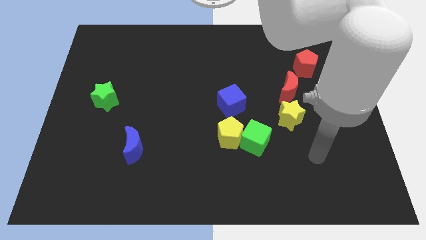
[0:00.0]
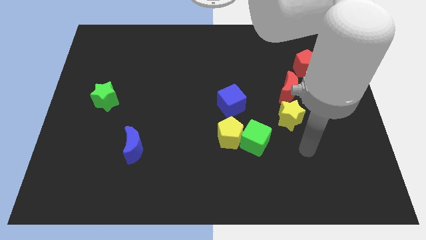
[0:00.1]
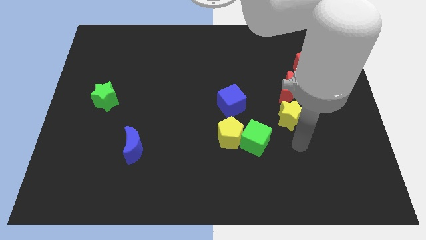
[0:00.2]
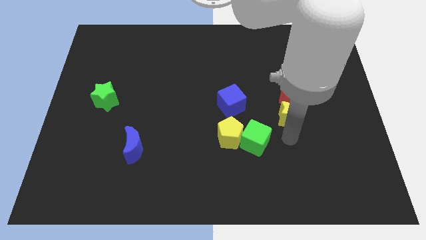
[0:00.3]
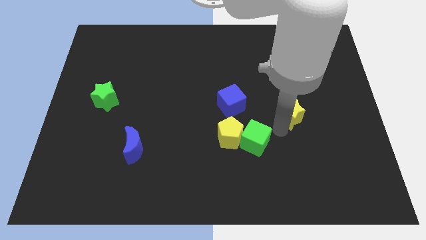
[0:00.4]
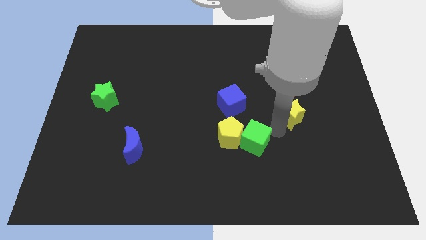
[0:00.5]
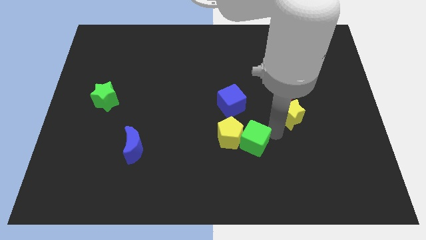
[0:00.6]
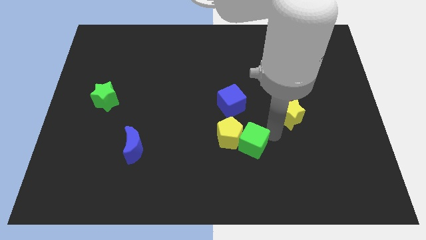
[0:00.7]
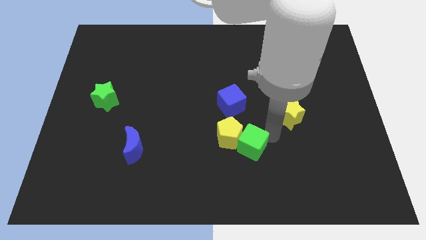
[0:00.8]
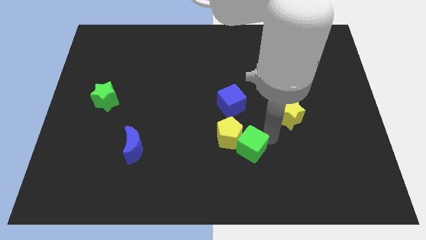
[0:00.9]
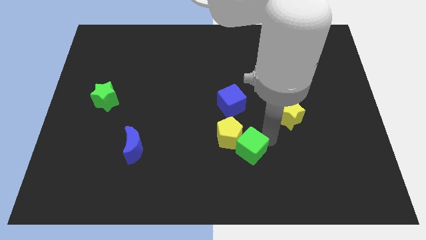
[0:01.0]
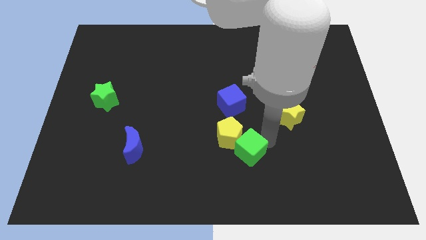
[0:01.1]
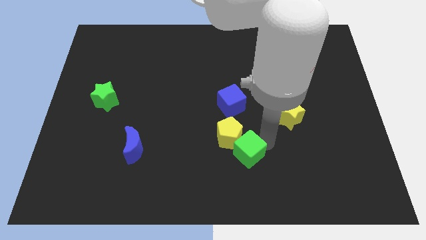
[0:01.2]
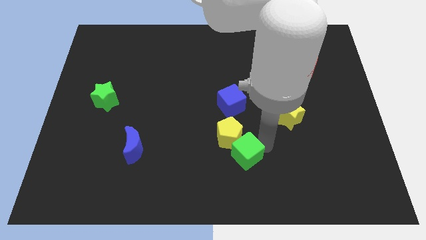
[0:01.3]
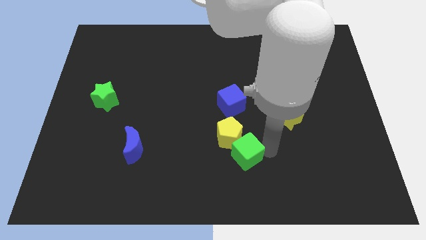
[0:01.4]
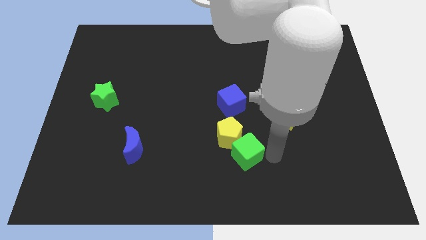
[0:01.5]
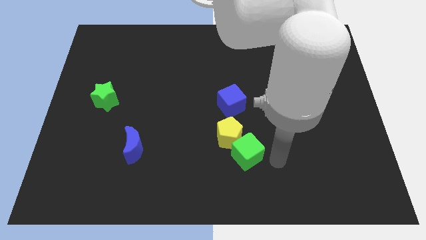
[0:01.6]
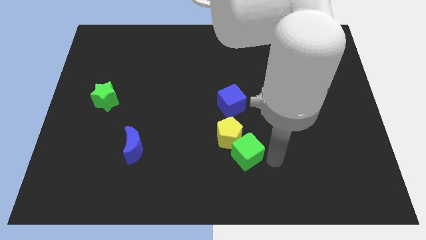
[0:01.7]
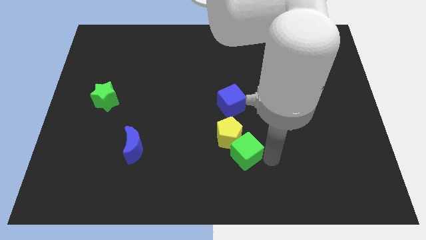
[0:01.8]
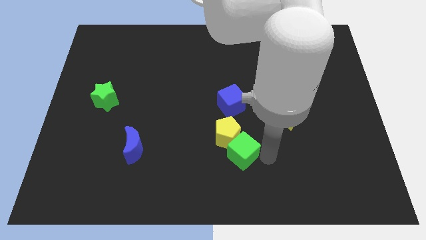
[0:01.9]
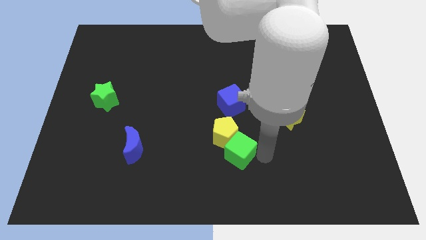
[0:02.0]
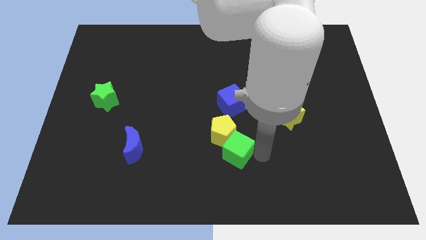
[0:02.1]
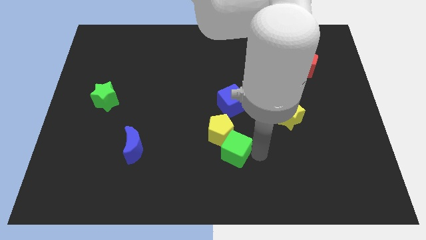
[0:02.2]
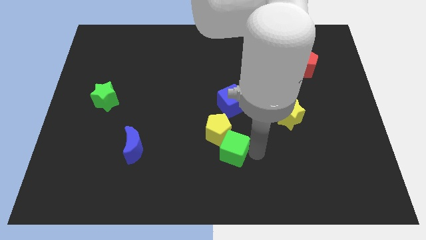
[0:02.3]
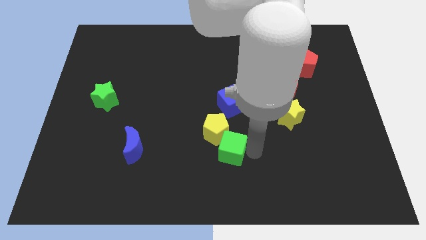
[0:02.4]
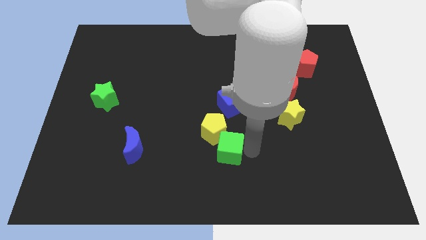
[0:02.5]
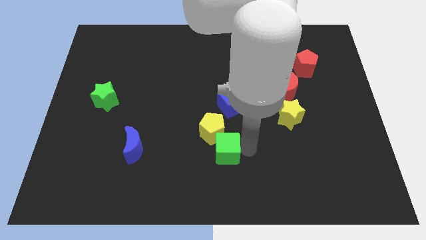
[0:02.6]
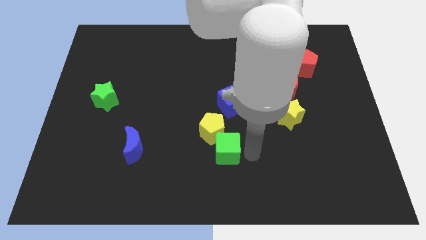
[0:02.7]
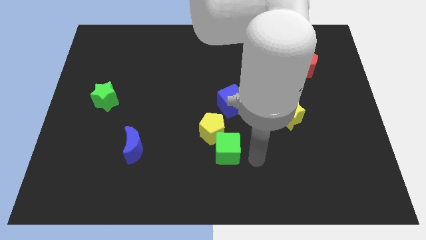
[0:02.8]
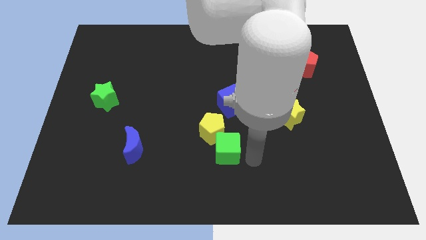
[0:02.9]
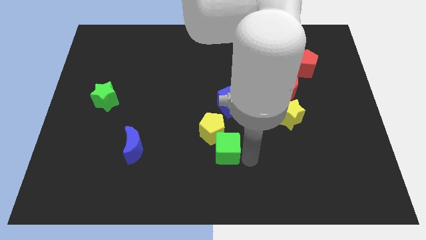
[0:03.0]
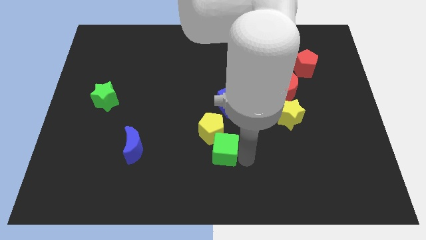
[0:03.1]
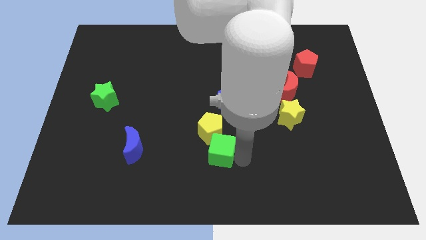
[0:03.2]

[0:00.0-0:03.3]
slide the green cube left somewhat

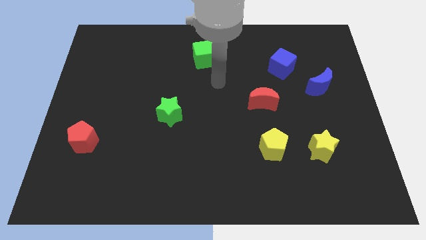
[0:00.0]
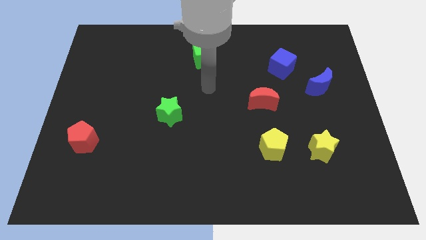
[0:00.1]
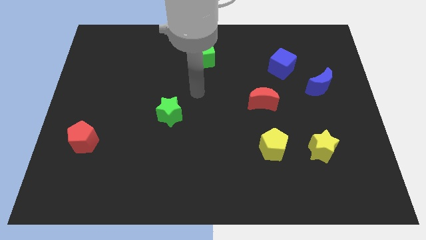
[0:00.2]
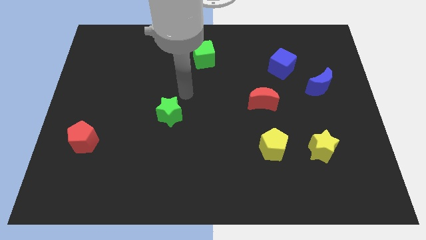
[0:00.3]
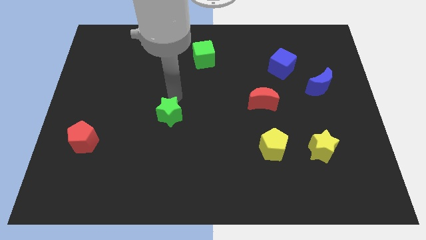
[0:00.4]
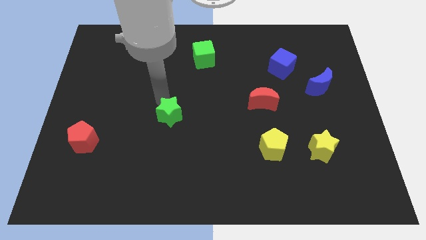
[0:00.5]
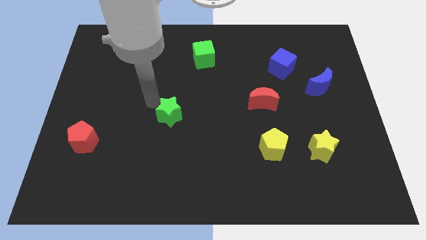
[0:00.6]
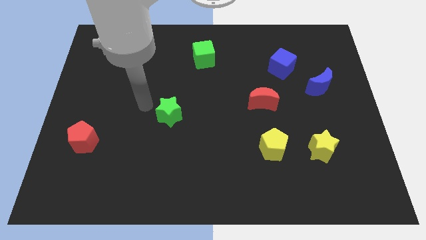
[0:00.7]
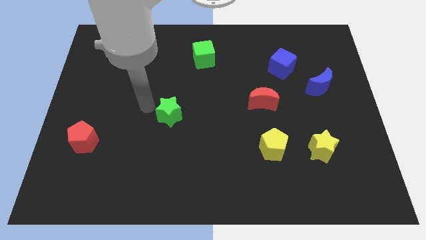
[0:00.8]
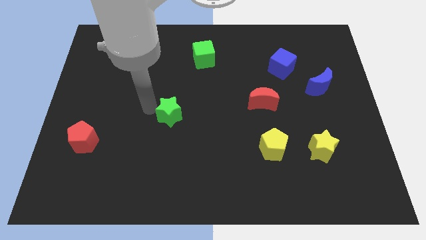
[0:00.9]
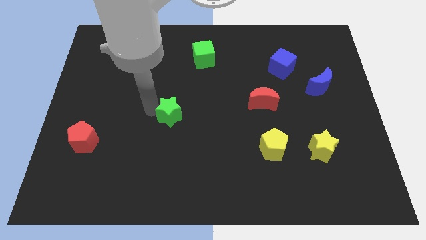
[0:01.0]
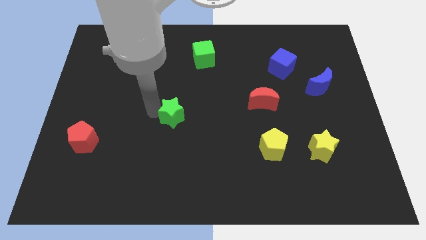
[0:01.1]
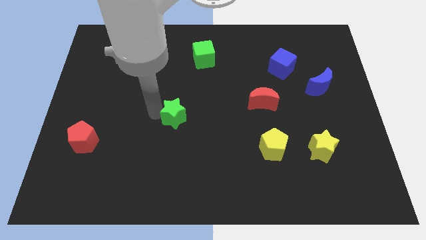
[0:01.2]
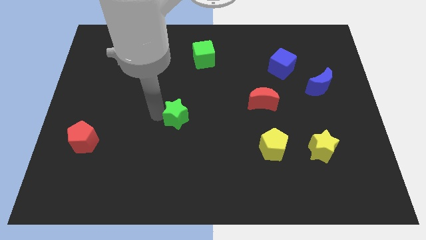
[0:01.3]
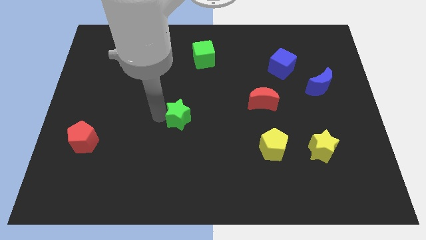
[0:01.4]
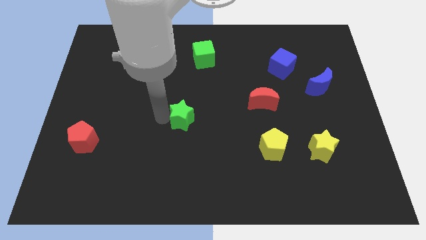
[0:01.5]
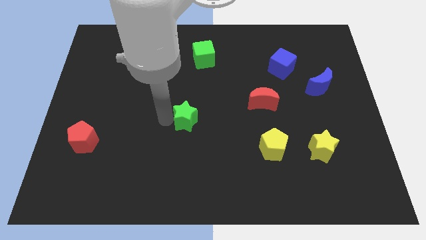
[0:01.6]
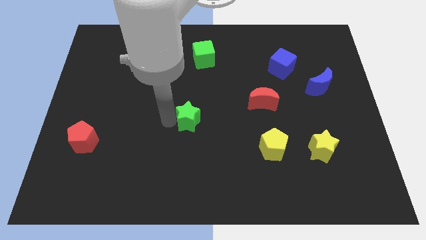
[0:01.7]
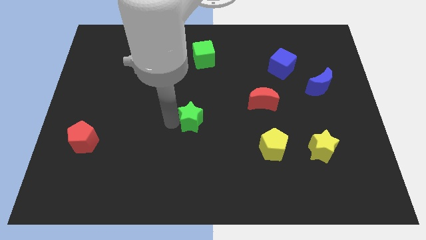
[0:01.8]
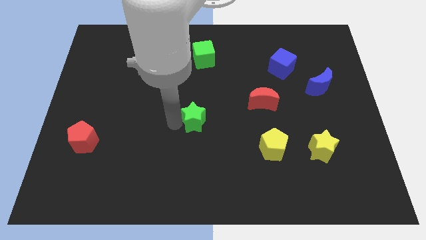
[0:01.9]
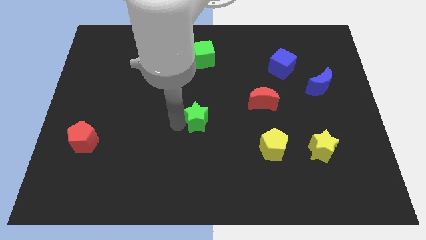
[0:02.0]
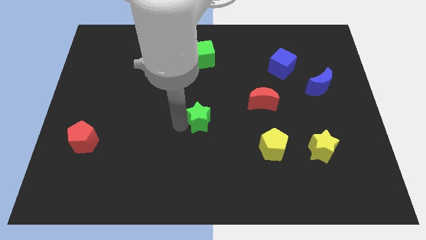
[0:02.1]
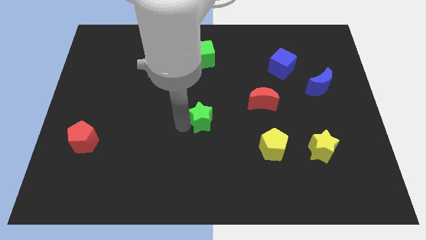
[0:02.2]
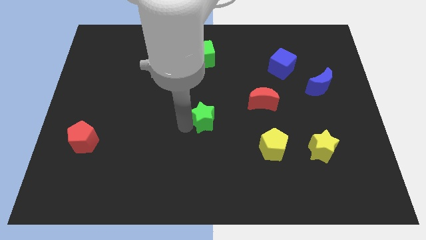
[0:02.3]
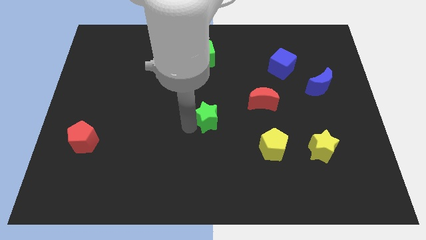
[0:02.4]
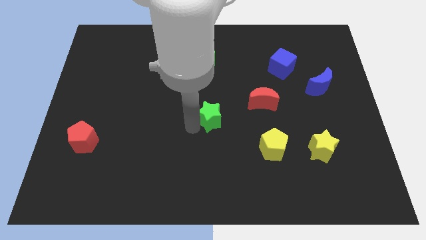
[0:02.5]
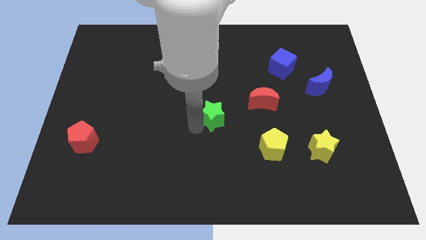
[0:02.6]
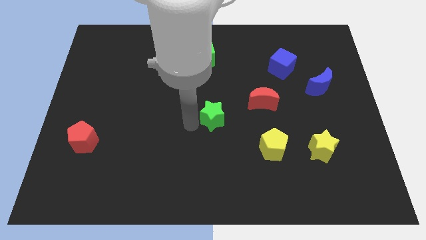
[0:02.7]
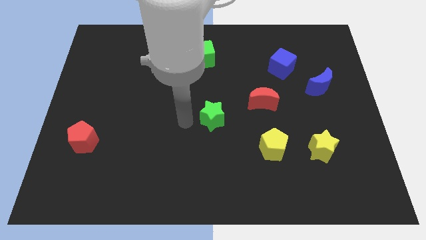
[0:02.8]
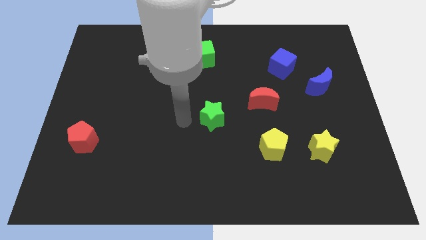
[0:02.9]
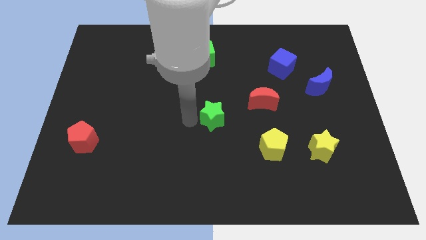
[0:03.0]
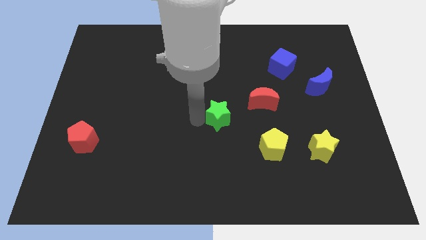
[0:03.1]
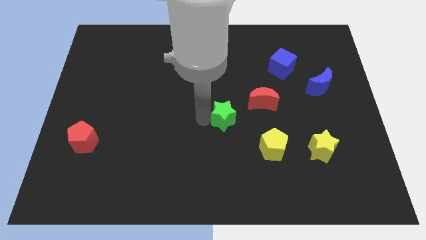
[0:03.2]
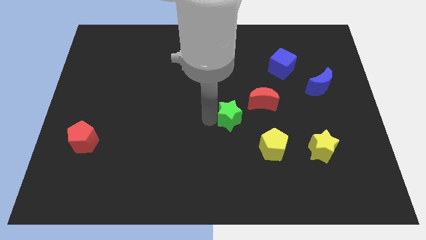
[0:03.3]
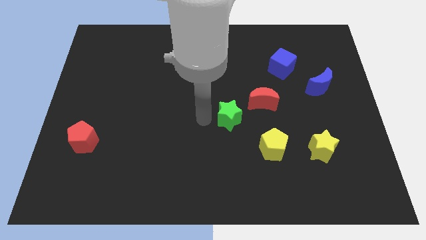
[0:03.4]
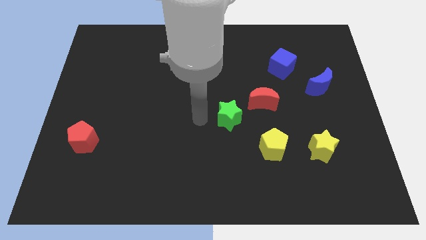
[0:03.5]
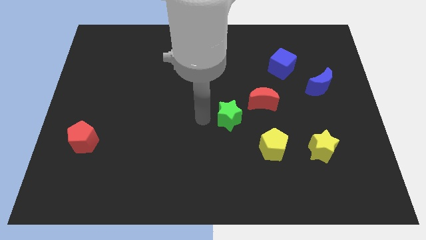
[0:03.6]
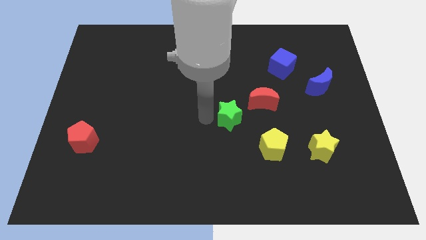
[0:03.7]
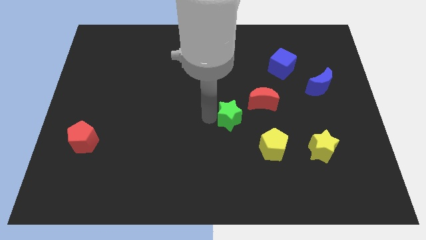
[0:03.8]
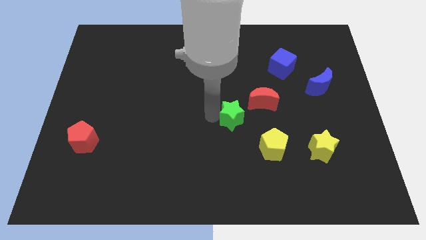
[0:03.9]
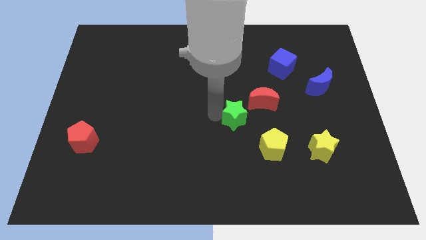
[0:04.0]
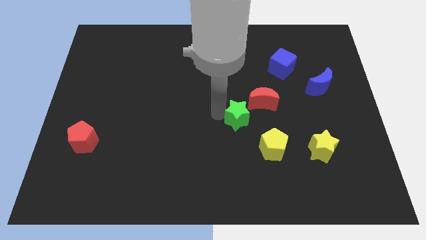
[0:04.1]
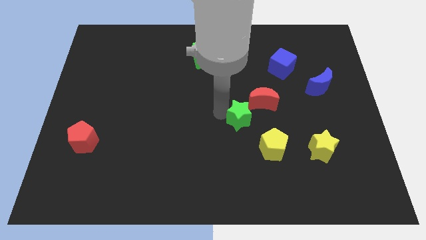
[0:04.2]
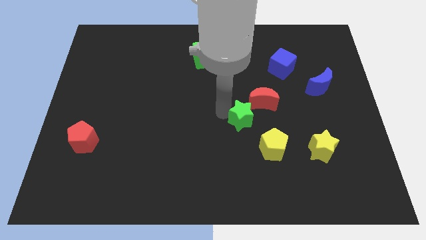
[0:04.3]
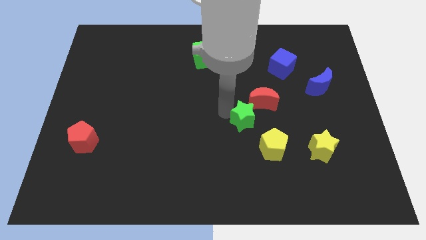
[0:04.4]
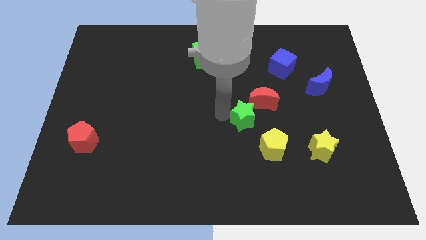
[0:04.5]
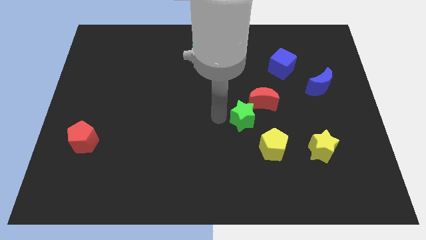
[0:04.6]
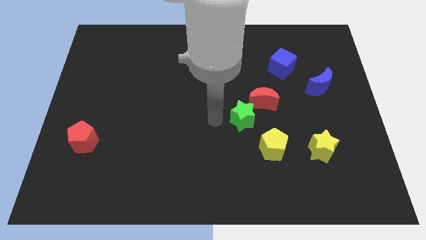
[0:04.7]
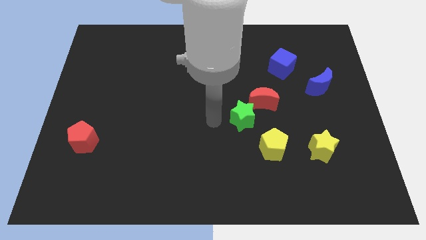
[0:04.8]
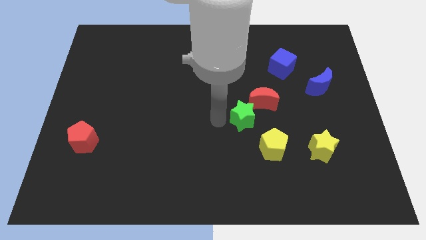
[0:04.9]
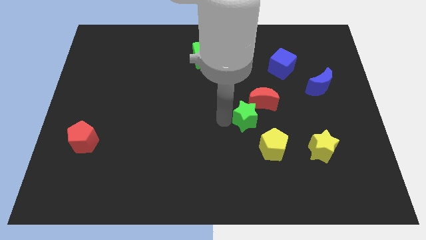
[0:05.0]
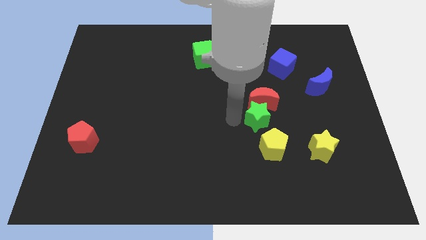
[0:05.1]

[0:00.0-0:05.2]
slide the green star right

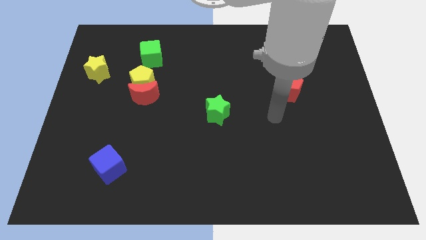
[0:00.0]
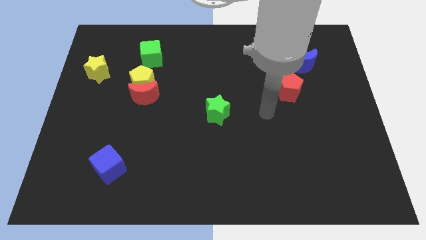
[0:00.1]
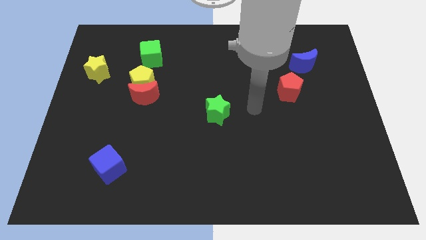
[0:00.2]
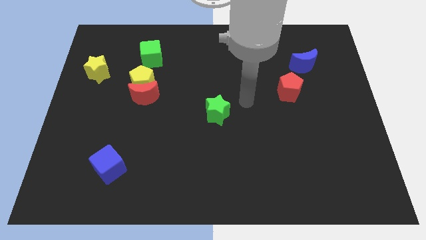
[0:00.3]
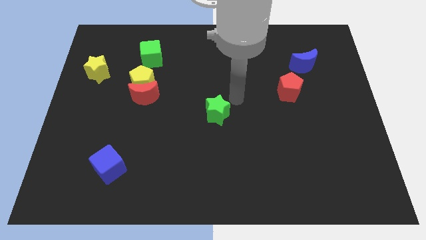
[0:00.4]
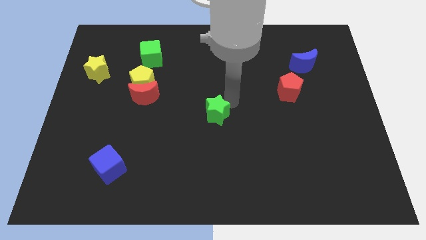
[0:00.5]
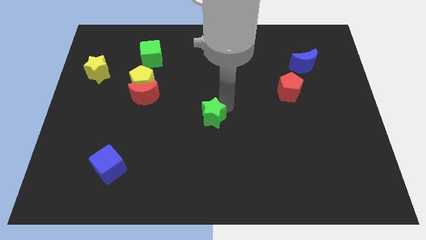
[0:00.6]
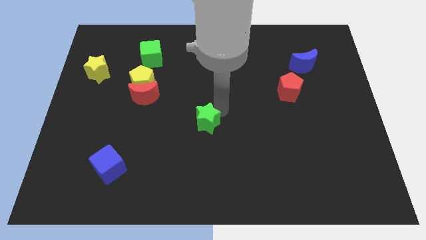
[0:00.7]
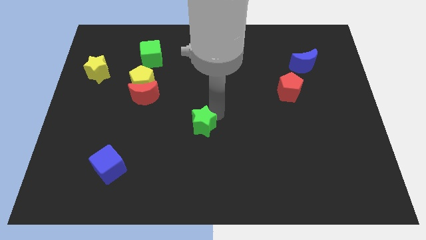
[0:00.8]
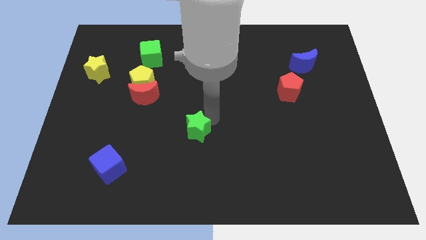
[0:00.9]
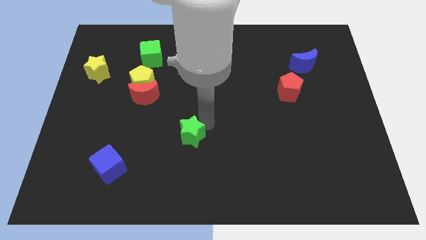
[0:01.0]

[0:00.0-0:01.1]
slightly move the green star downwards and then left
